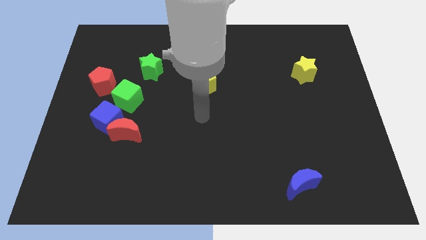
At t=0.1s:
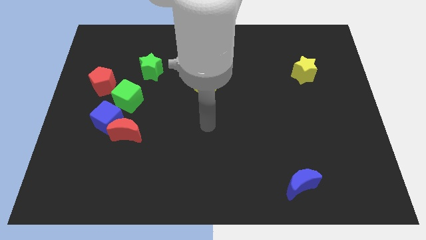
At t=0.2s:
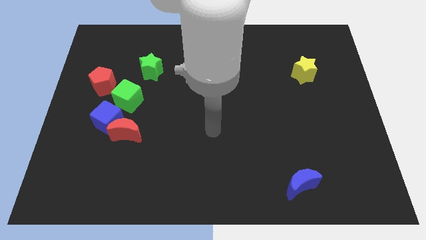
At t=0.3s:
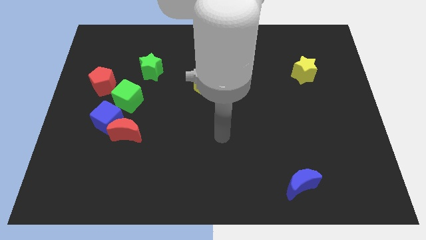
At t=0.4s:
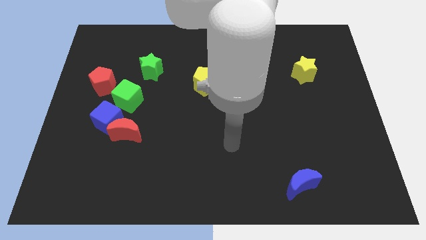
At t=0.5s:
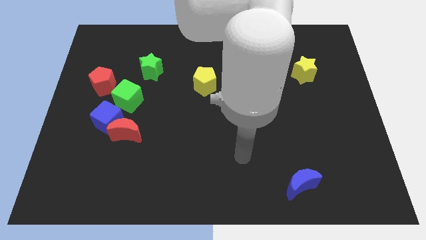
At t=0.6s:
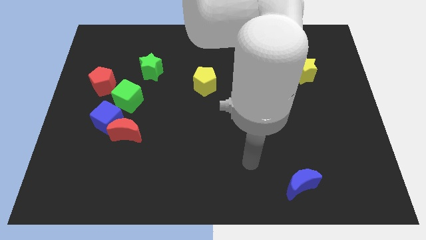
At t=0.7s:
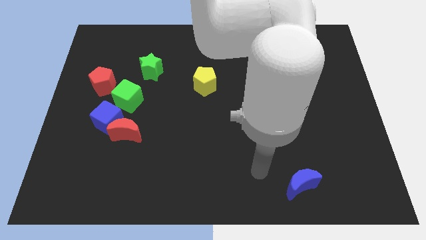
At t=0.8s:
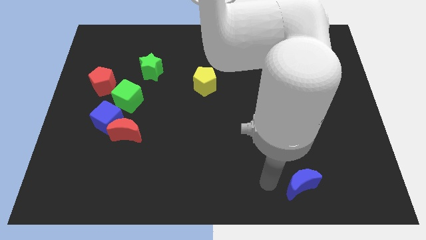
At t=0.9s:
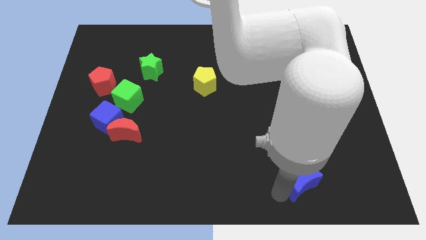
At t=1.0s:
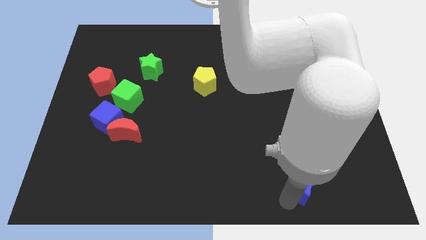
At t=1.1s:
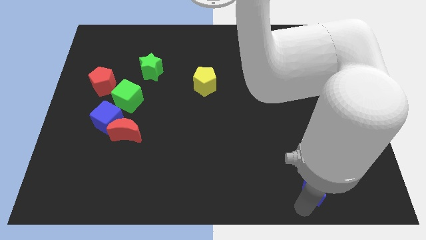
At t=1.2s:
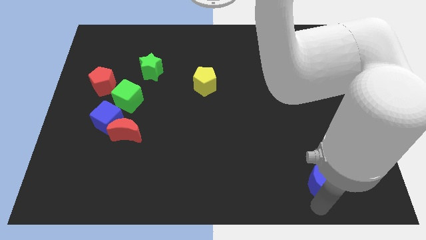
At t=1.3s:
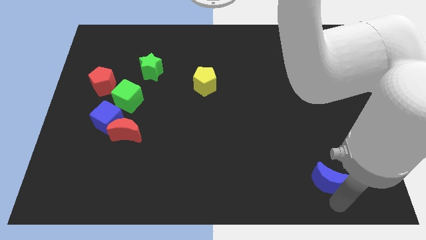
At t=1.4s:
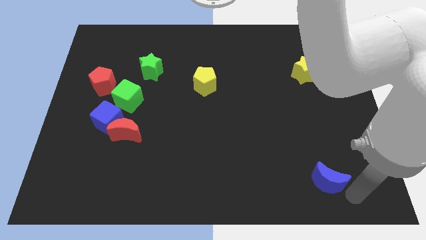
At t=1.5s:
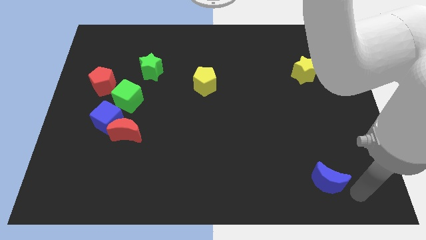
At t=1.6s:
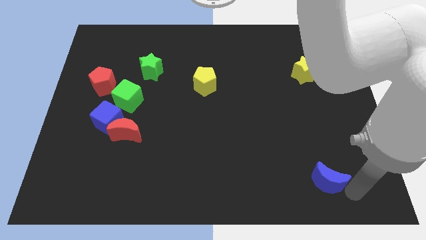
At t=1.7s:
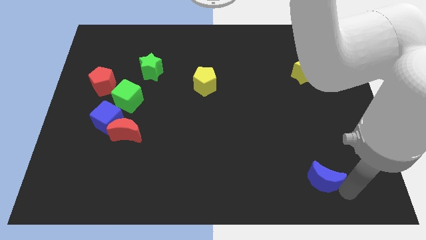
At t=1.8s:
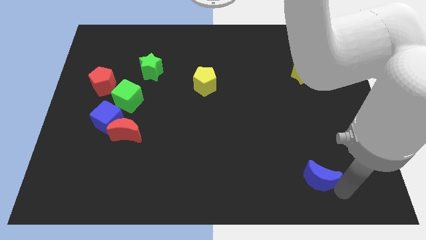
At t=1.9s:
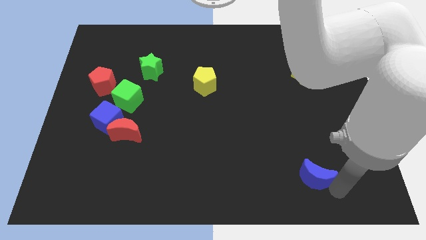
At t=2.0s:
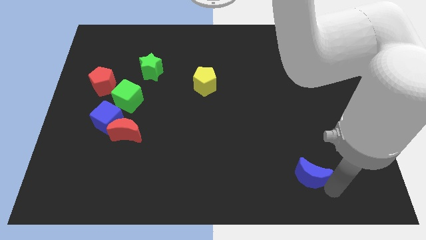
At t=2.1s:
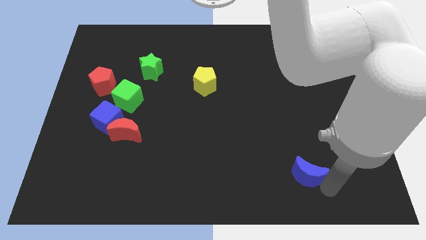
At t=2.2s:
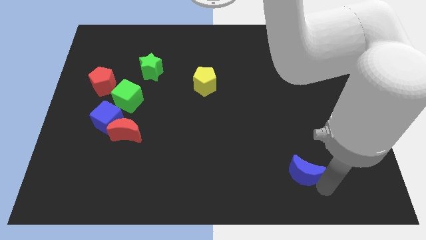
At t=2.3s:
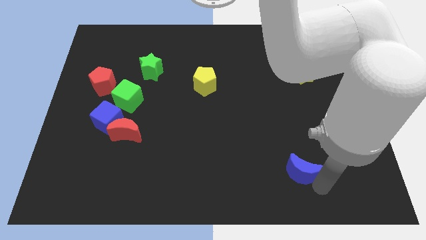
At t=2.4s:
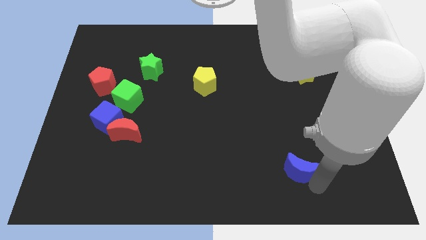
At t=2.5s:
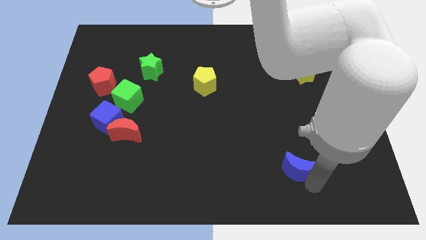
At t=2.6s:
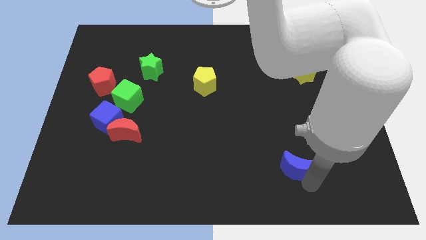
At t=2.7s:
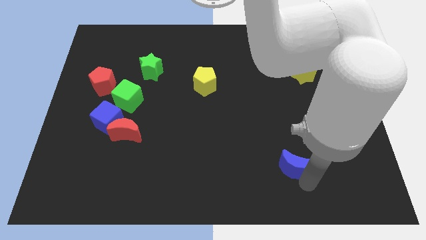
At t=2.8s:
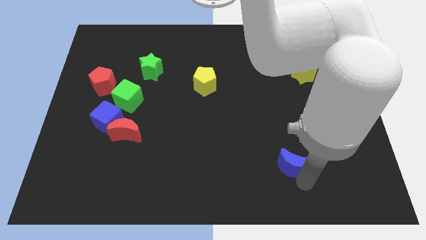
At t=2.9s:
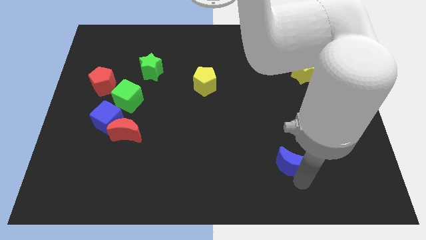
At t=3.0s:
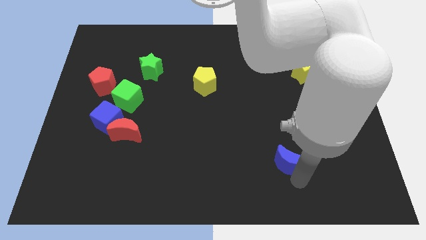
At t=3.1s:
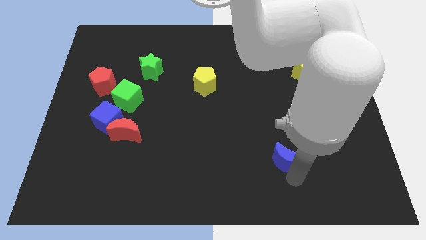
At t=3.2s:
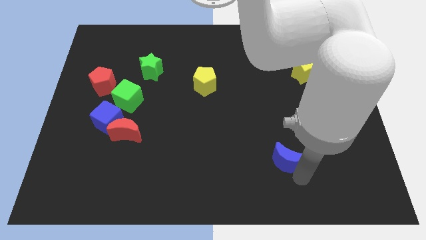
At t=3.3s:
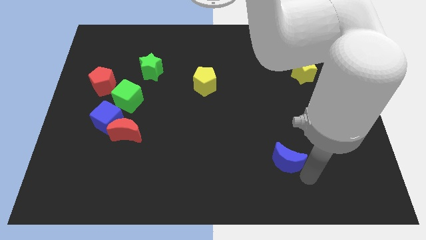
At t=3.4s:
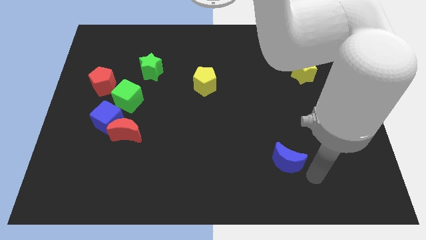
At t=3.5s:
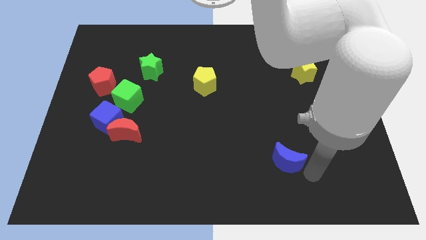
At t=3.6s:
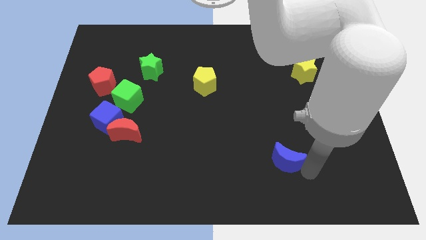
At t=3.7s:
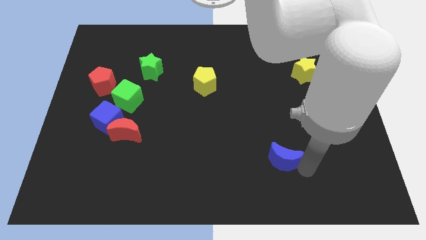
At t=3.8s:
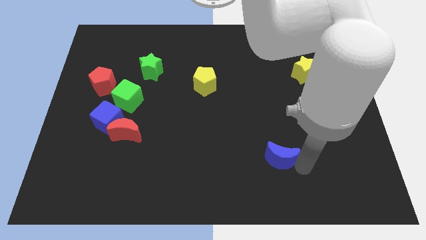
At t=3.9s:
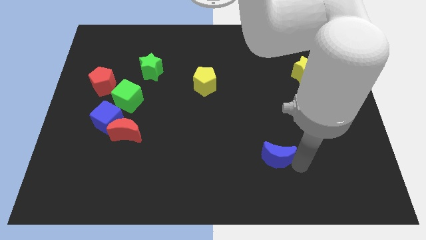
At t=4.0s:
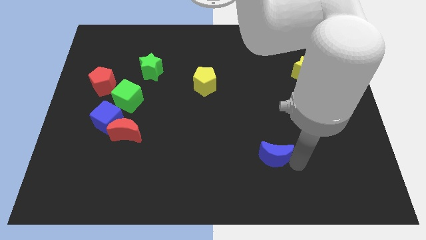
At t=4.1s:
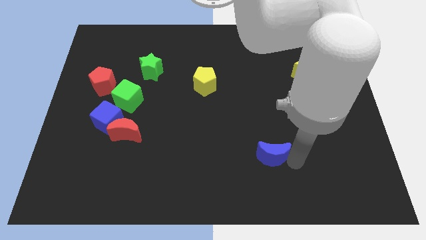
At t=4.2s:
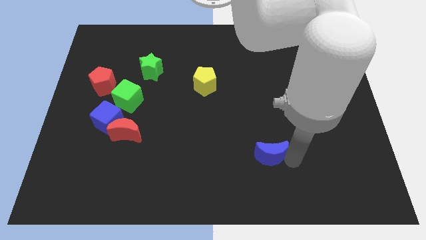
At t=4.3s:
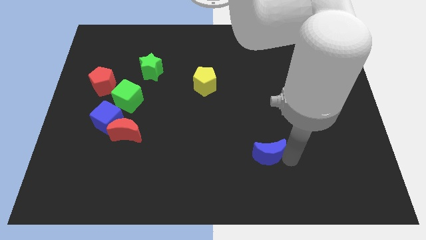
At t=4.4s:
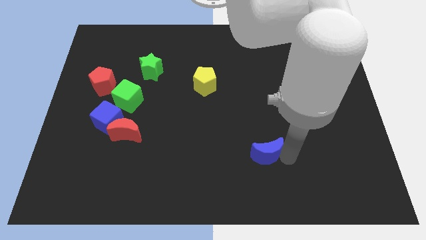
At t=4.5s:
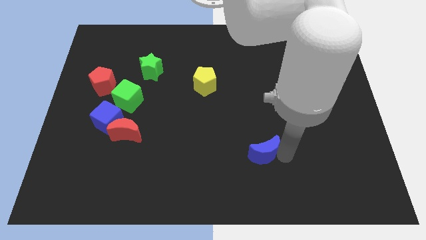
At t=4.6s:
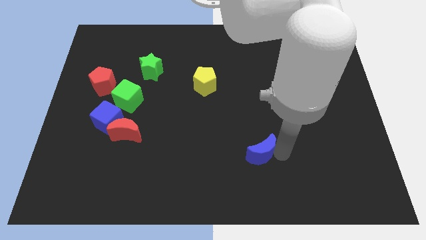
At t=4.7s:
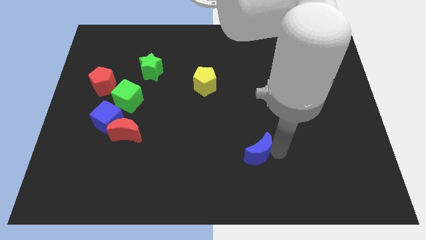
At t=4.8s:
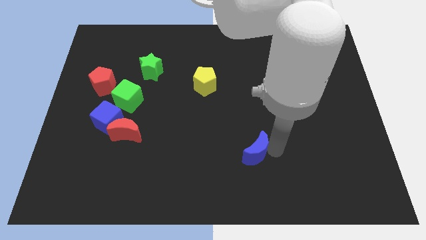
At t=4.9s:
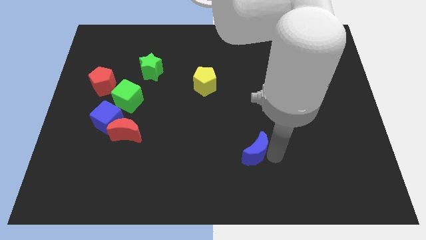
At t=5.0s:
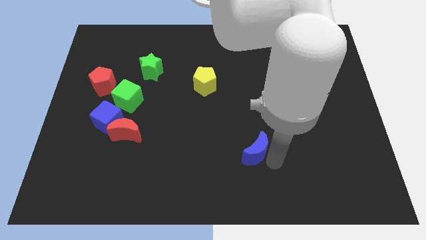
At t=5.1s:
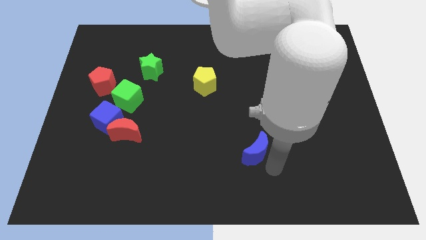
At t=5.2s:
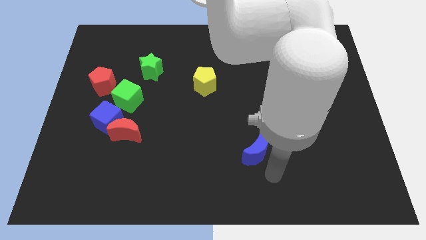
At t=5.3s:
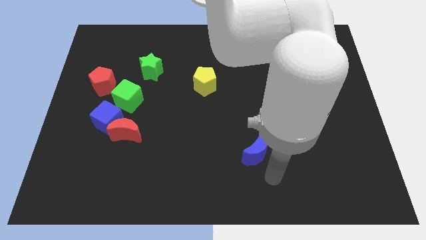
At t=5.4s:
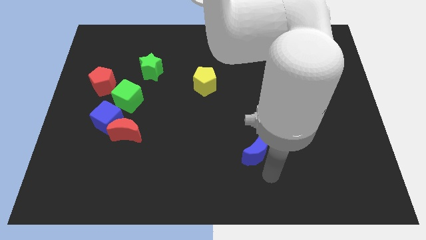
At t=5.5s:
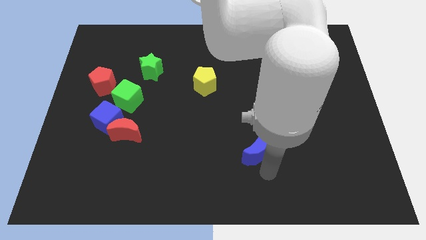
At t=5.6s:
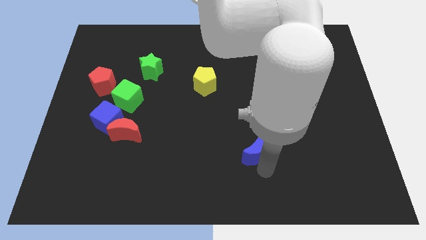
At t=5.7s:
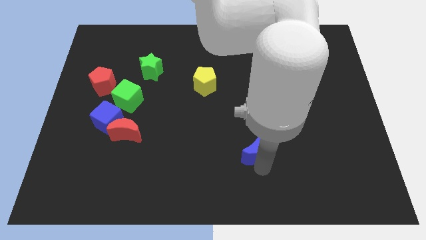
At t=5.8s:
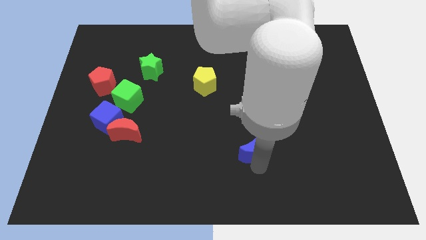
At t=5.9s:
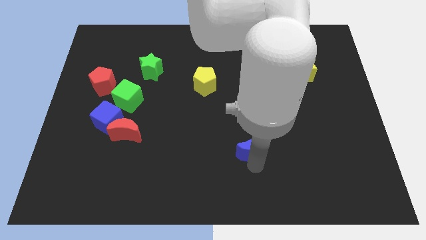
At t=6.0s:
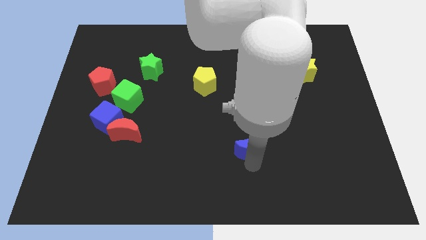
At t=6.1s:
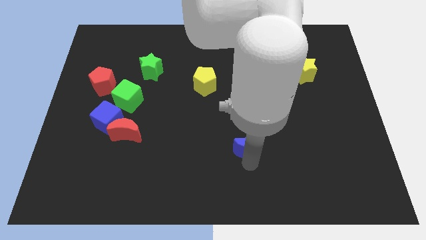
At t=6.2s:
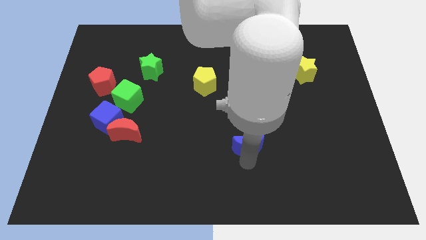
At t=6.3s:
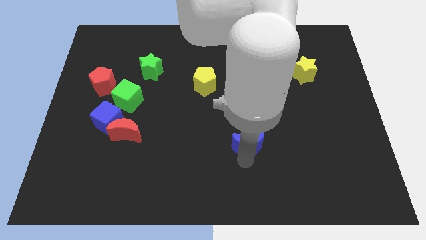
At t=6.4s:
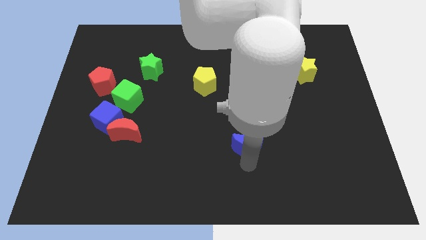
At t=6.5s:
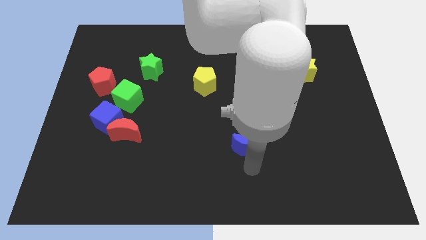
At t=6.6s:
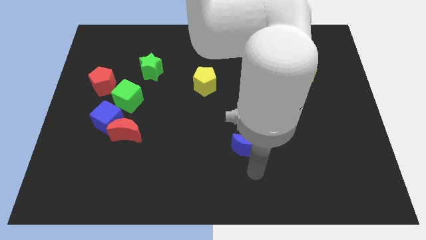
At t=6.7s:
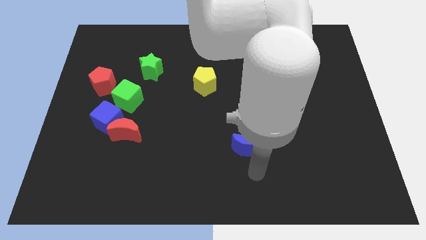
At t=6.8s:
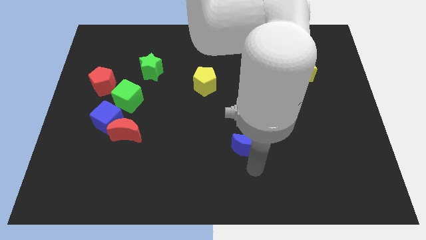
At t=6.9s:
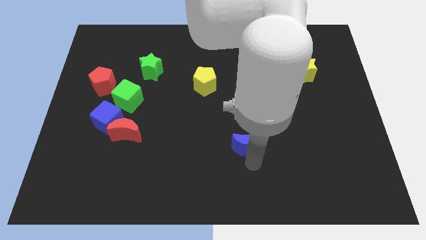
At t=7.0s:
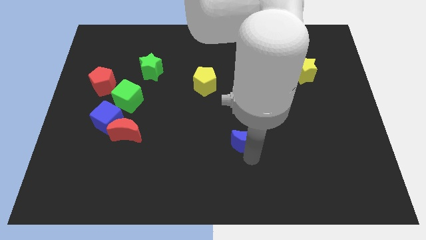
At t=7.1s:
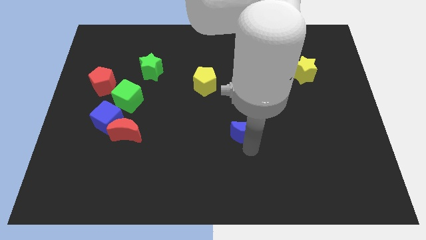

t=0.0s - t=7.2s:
push the blue moon to the center of the board
